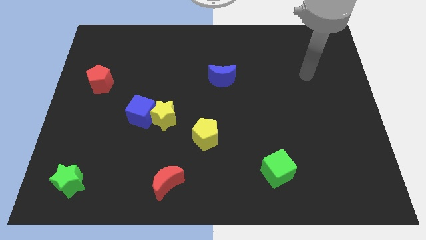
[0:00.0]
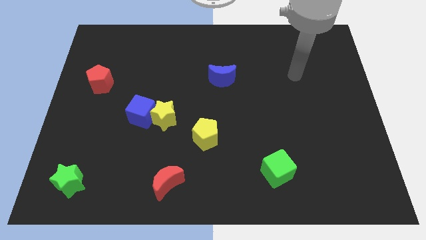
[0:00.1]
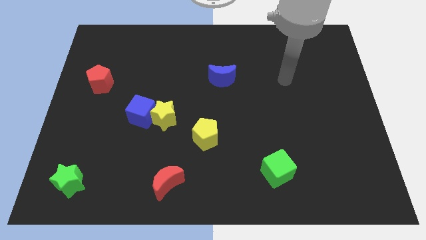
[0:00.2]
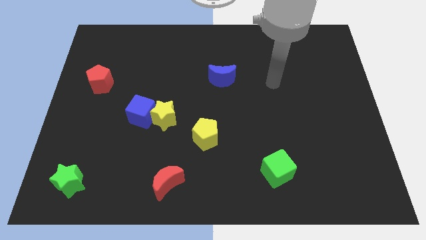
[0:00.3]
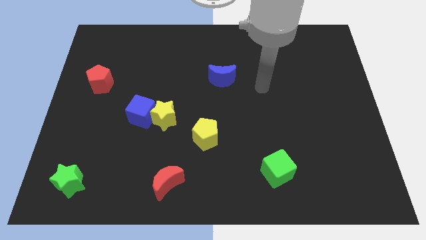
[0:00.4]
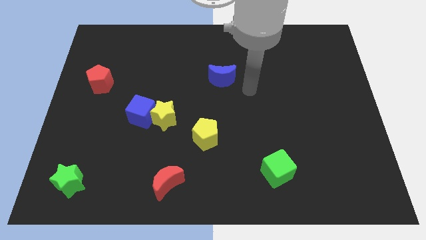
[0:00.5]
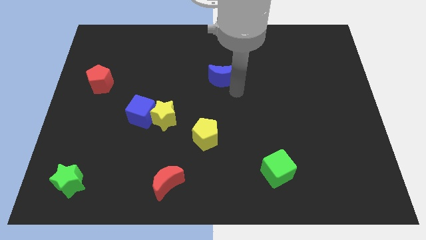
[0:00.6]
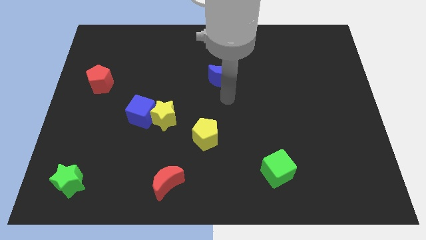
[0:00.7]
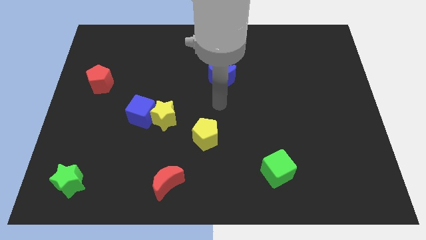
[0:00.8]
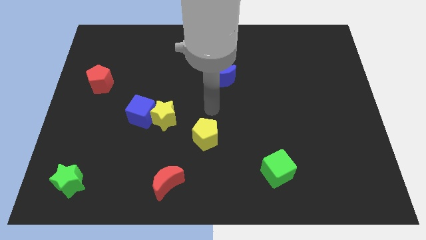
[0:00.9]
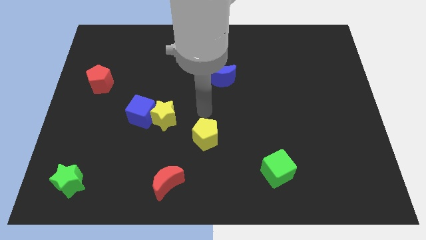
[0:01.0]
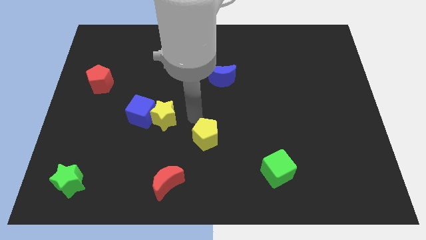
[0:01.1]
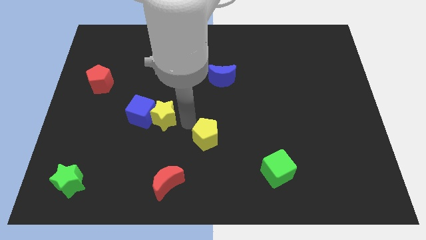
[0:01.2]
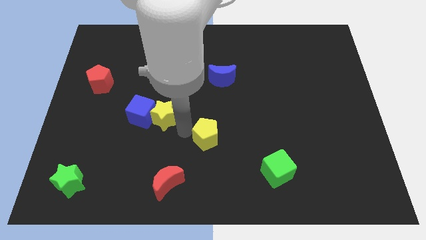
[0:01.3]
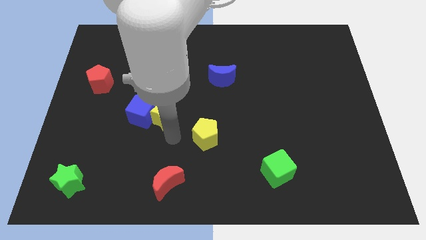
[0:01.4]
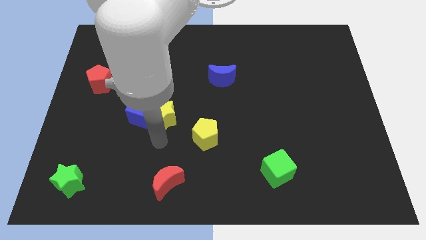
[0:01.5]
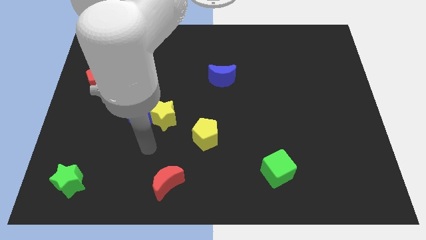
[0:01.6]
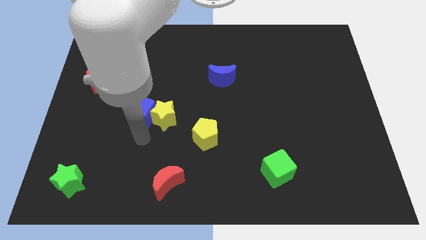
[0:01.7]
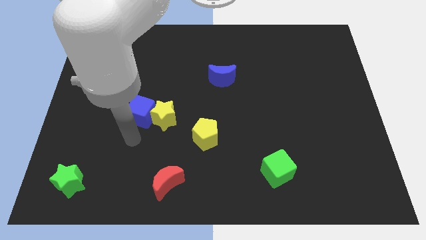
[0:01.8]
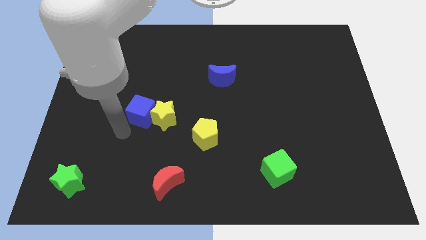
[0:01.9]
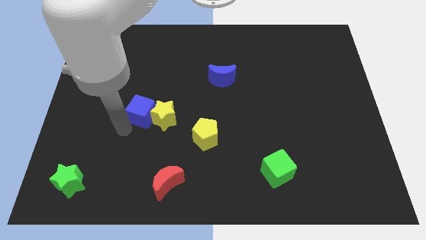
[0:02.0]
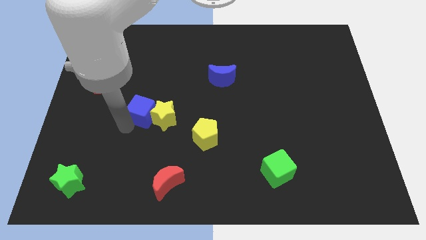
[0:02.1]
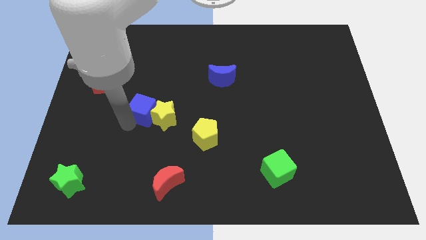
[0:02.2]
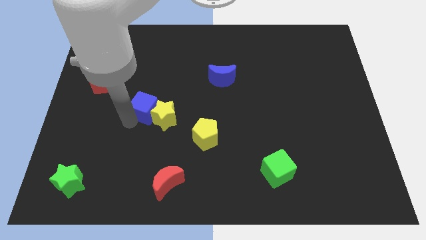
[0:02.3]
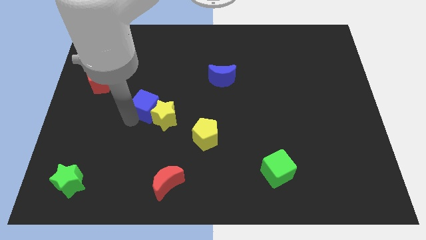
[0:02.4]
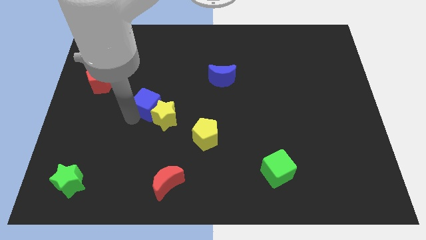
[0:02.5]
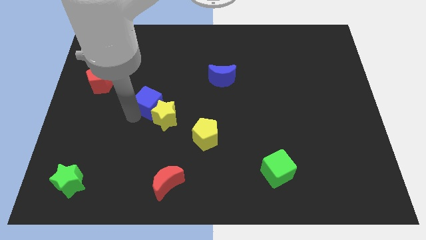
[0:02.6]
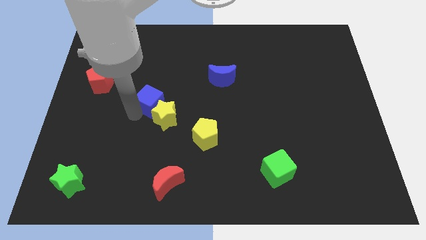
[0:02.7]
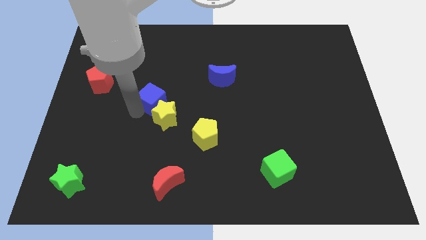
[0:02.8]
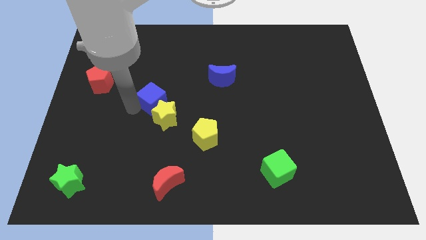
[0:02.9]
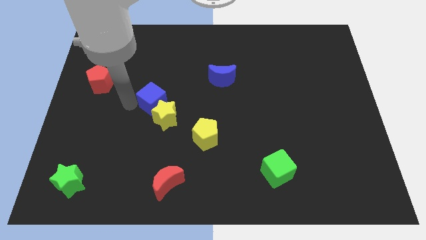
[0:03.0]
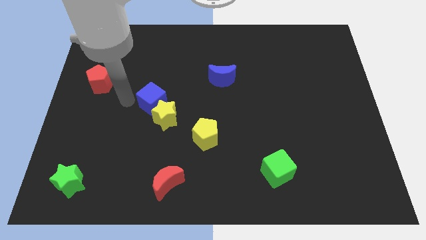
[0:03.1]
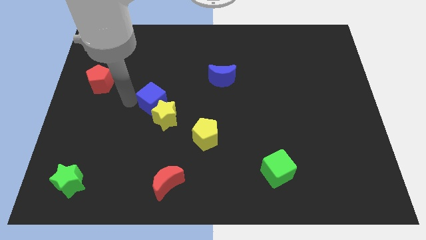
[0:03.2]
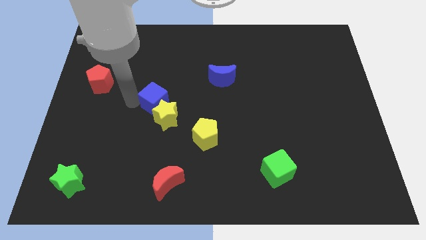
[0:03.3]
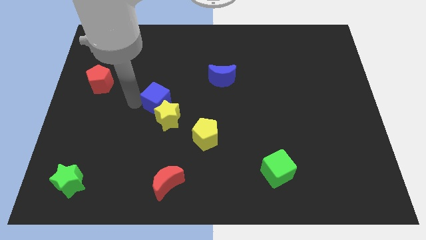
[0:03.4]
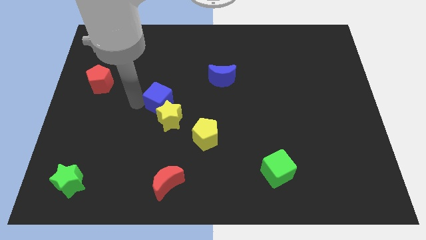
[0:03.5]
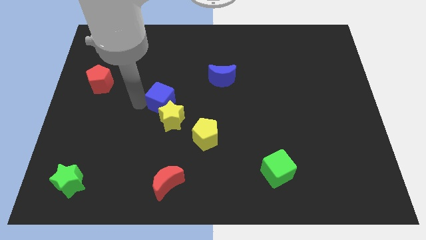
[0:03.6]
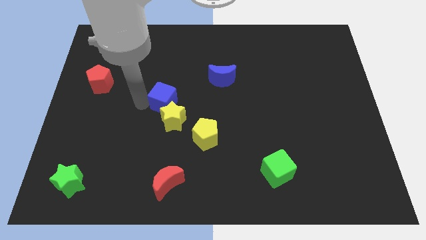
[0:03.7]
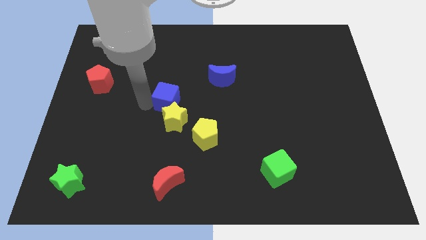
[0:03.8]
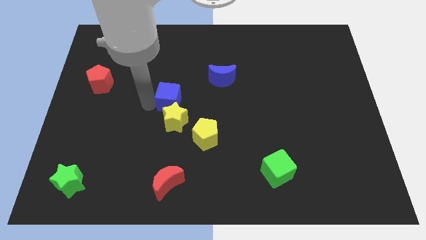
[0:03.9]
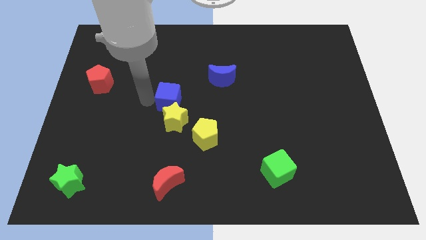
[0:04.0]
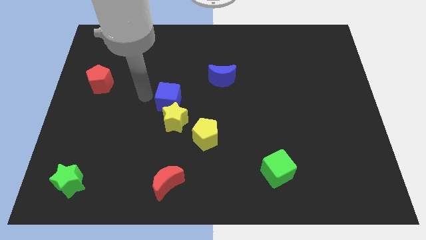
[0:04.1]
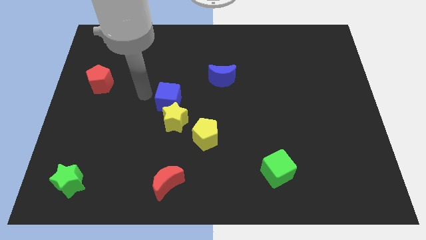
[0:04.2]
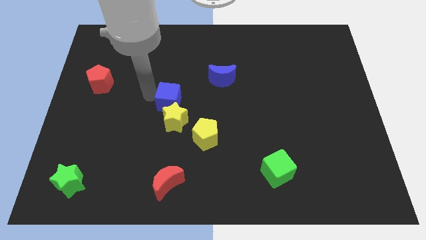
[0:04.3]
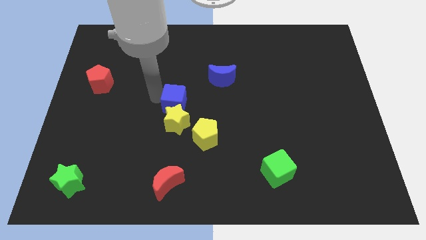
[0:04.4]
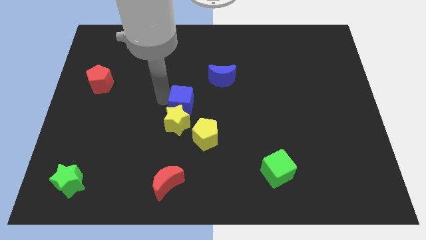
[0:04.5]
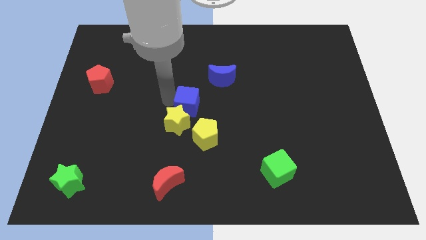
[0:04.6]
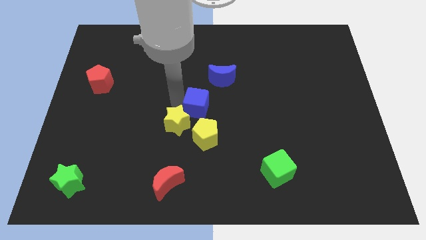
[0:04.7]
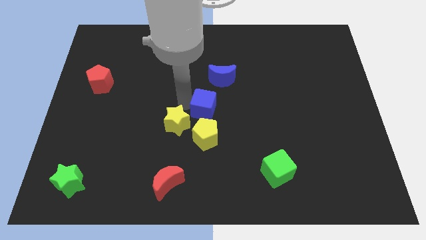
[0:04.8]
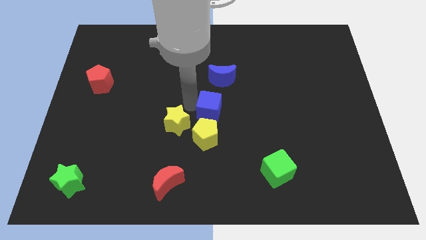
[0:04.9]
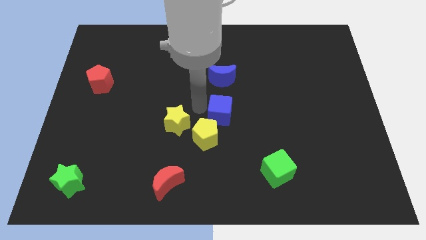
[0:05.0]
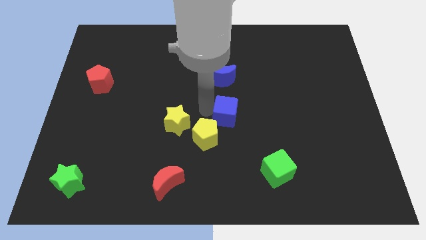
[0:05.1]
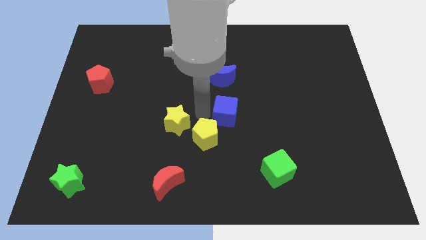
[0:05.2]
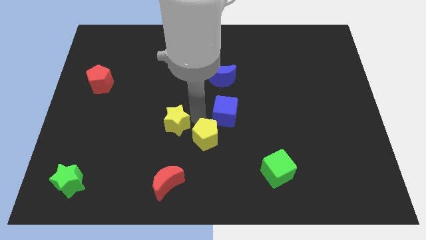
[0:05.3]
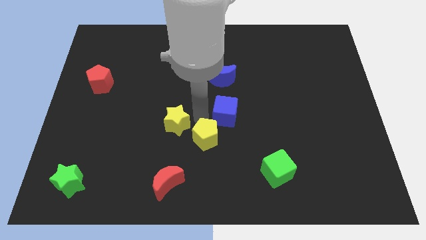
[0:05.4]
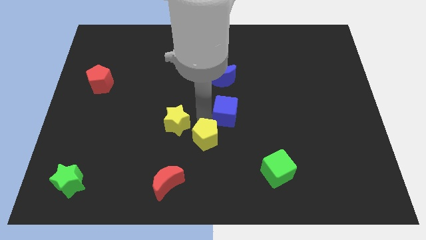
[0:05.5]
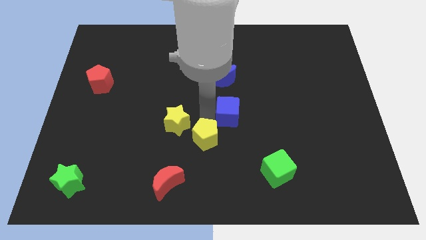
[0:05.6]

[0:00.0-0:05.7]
move the blue cube right

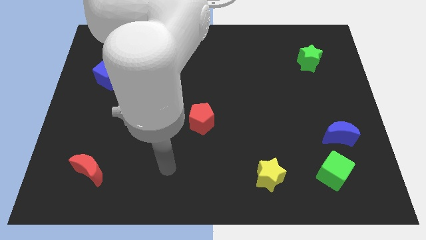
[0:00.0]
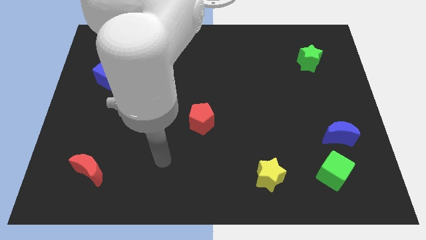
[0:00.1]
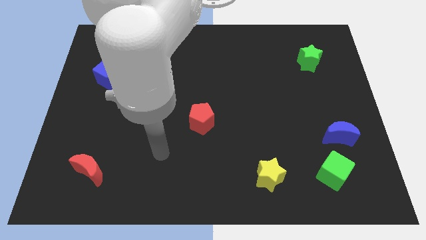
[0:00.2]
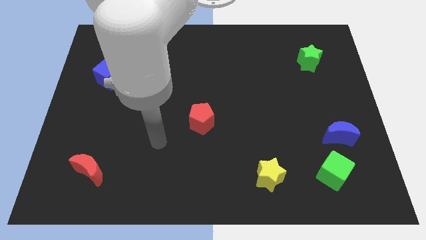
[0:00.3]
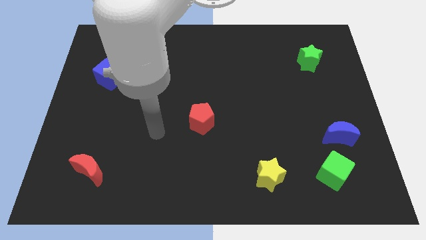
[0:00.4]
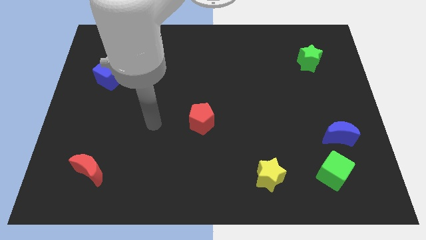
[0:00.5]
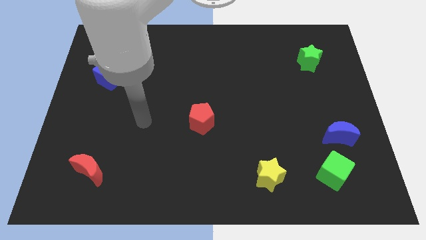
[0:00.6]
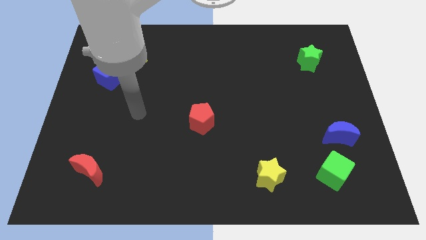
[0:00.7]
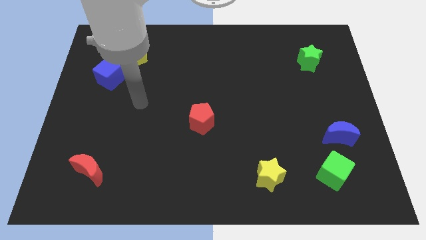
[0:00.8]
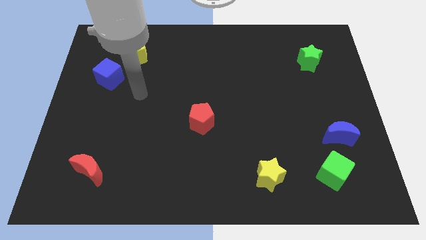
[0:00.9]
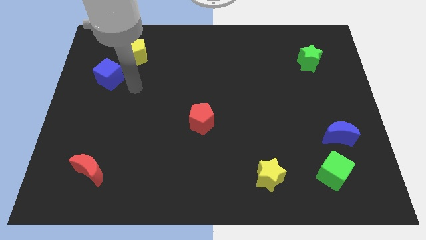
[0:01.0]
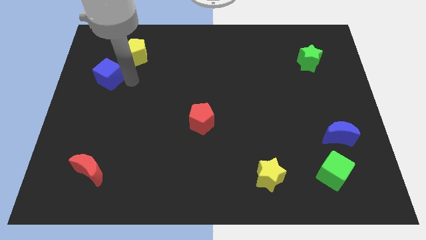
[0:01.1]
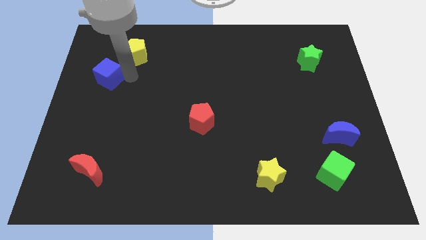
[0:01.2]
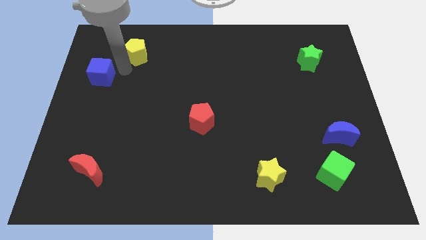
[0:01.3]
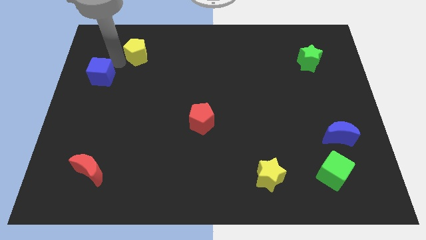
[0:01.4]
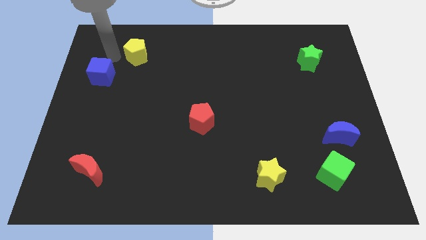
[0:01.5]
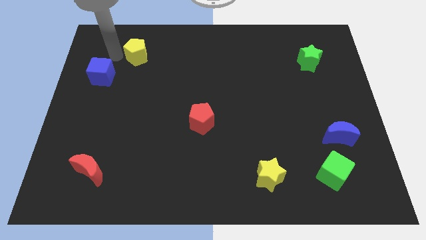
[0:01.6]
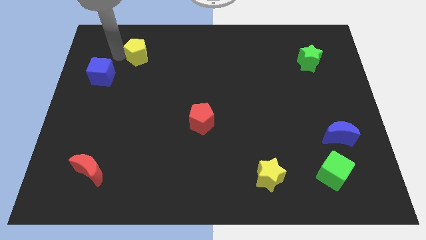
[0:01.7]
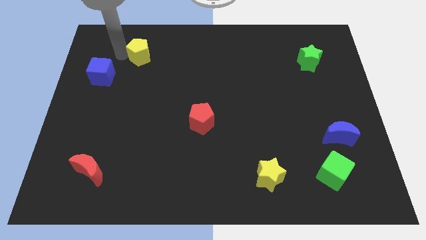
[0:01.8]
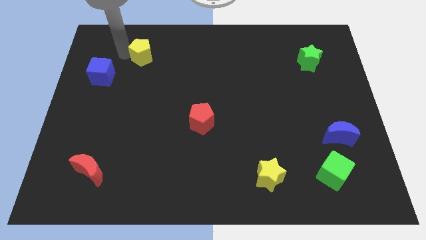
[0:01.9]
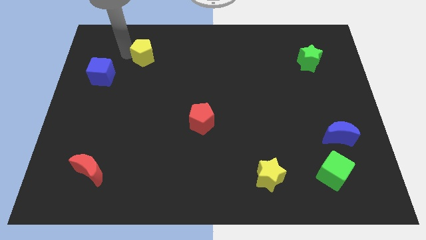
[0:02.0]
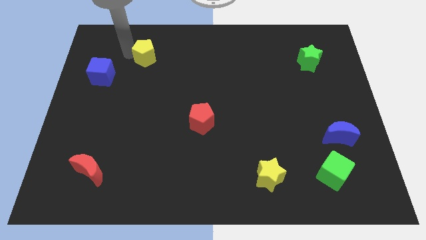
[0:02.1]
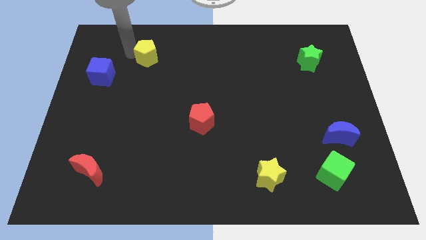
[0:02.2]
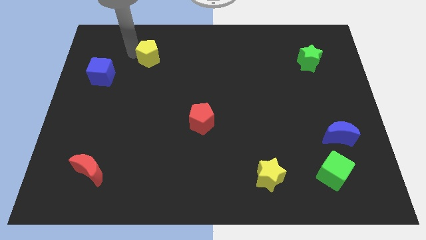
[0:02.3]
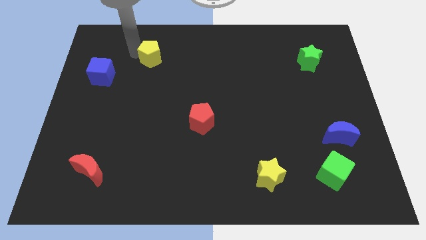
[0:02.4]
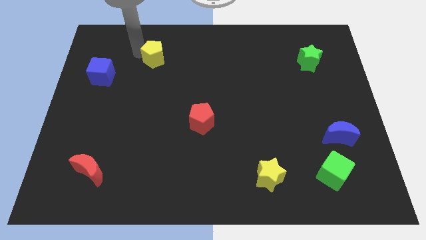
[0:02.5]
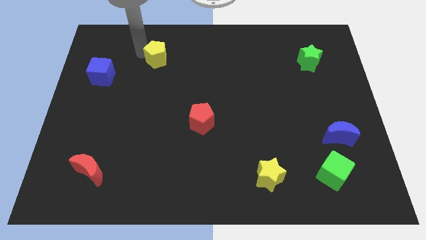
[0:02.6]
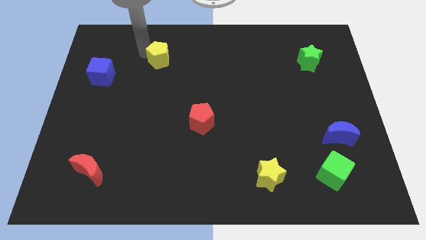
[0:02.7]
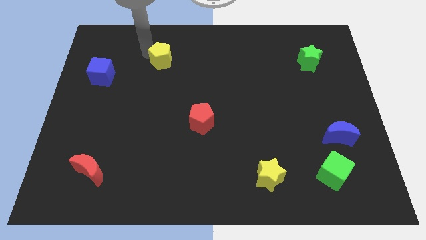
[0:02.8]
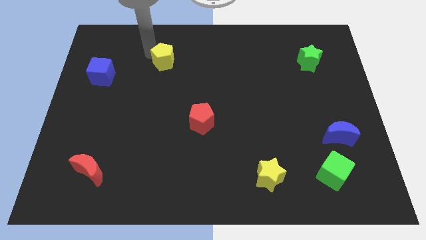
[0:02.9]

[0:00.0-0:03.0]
move the yellow pentagon a little bit to the right
